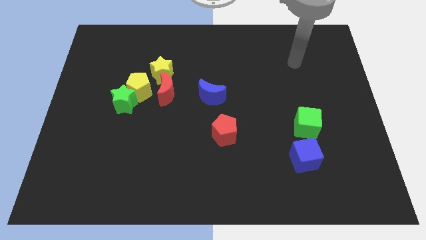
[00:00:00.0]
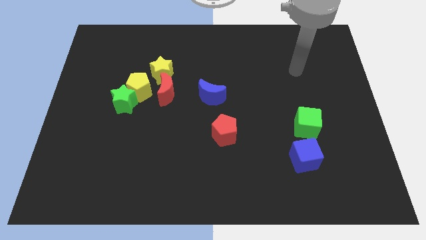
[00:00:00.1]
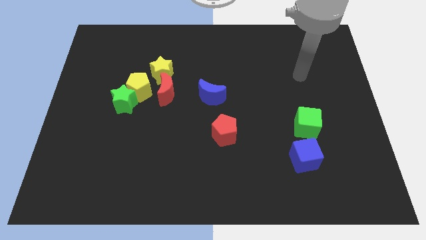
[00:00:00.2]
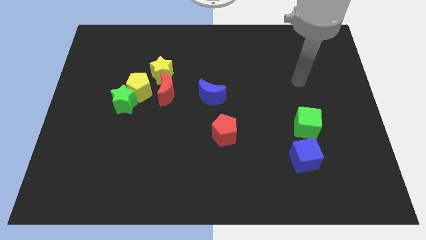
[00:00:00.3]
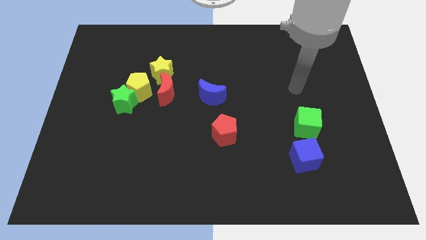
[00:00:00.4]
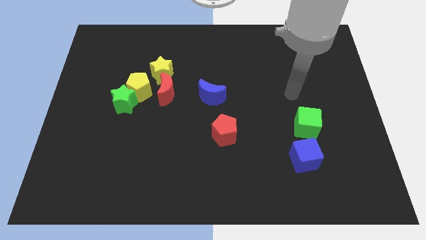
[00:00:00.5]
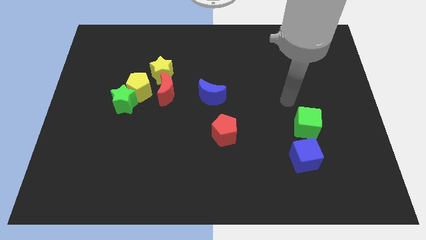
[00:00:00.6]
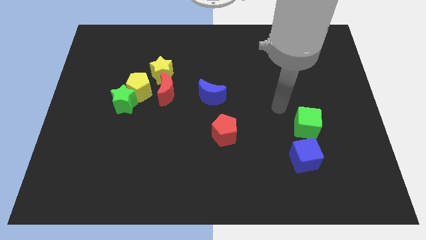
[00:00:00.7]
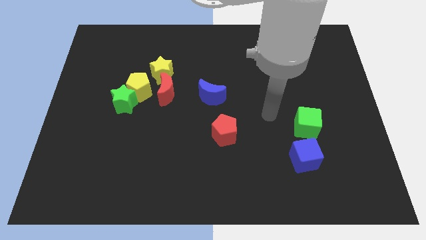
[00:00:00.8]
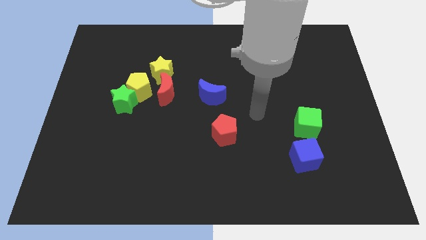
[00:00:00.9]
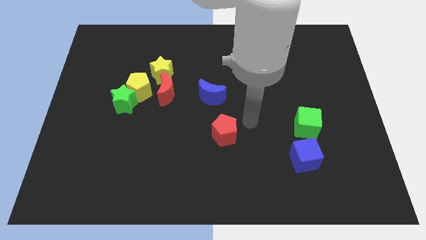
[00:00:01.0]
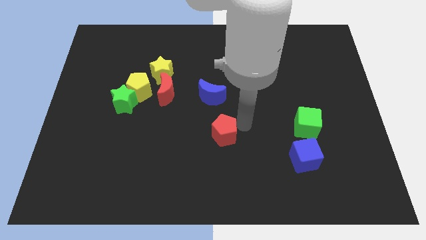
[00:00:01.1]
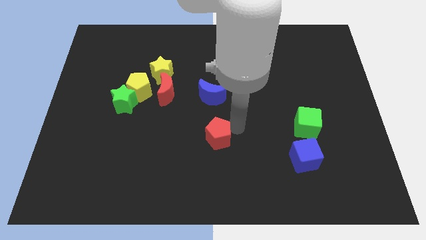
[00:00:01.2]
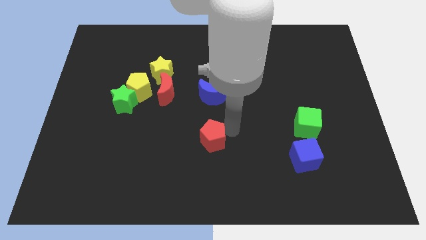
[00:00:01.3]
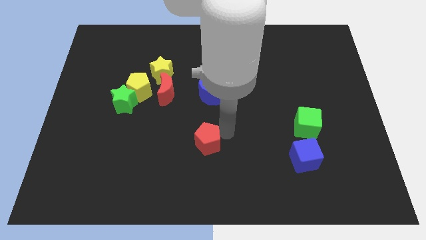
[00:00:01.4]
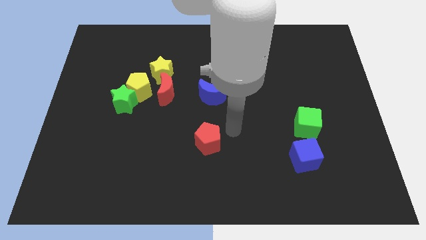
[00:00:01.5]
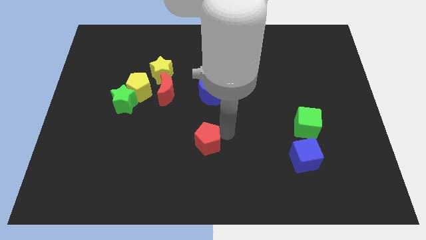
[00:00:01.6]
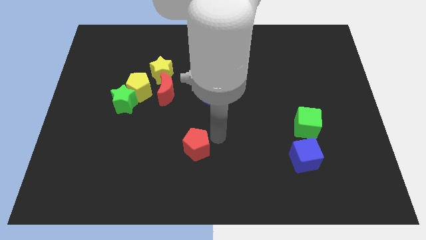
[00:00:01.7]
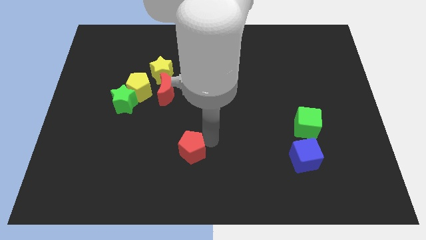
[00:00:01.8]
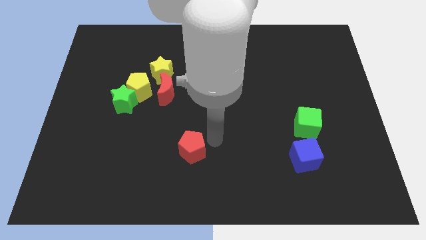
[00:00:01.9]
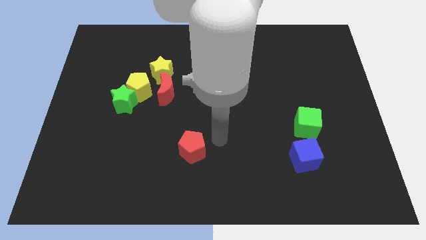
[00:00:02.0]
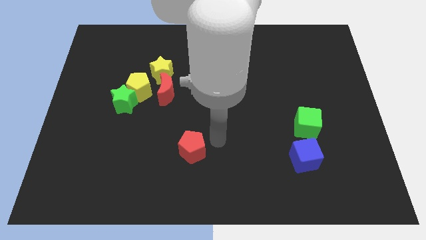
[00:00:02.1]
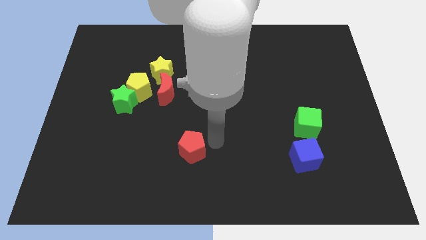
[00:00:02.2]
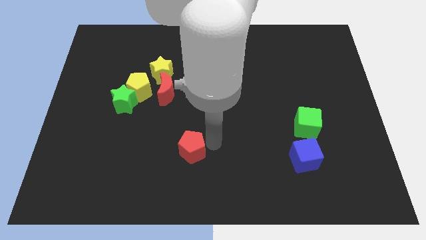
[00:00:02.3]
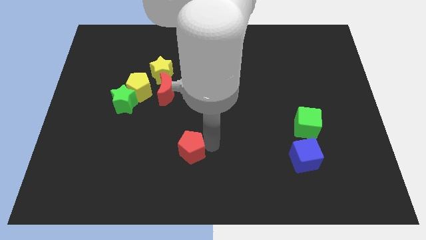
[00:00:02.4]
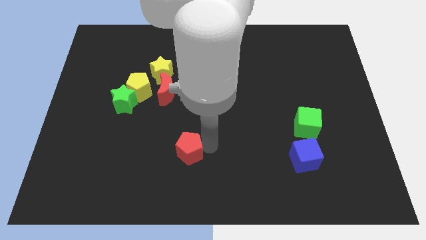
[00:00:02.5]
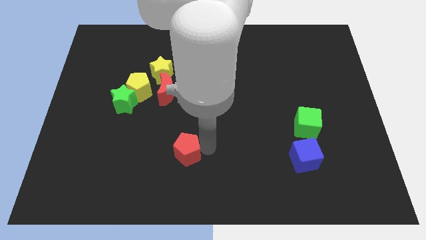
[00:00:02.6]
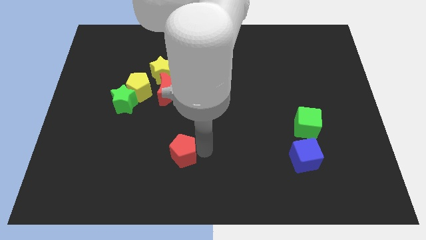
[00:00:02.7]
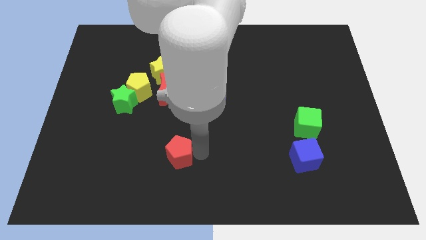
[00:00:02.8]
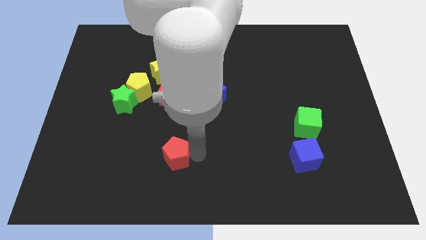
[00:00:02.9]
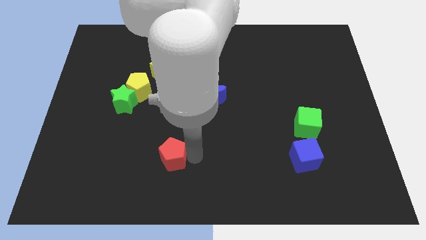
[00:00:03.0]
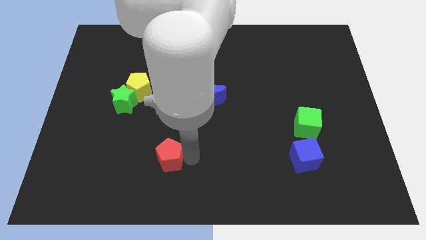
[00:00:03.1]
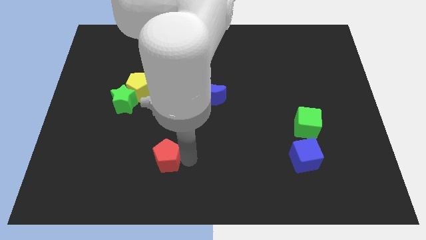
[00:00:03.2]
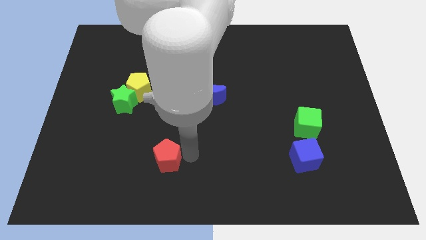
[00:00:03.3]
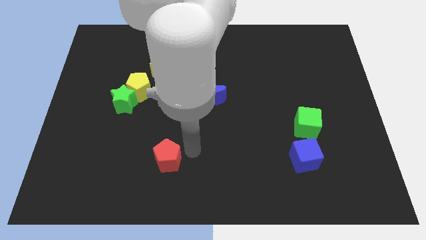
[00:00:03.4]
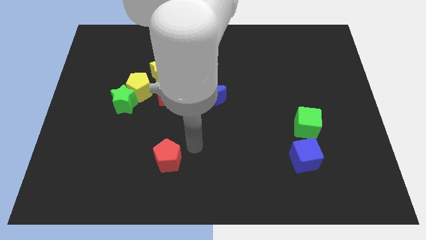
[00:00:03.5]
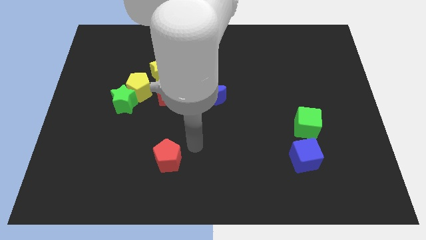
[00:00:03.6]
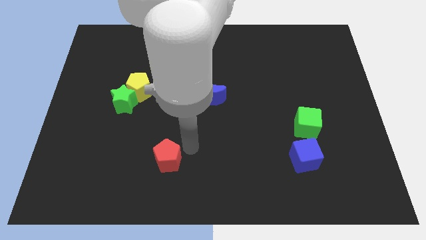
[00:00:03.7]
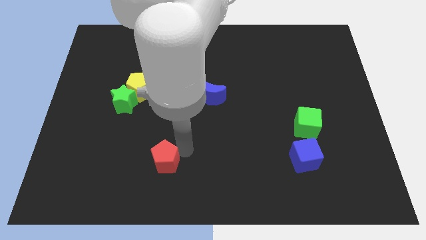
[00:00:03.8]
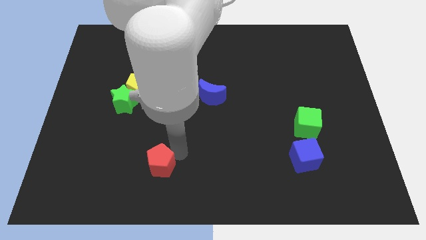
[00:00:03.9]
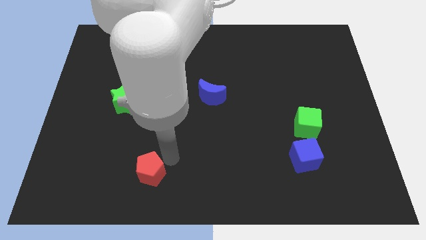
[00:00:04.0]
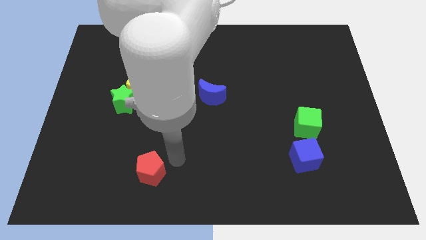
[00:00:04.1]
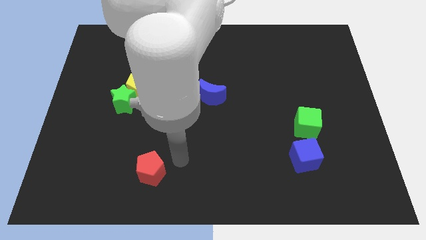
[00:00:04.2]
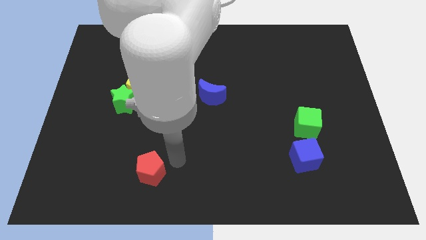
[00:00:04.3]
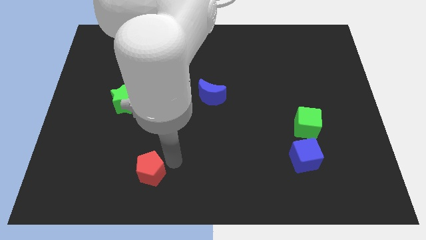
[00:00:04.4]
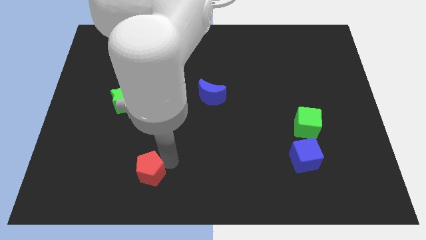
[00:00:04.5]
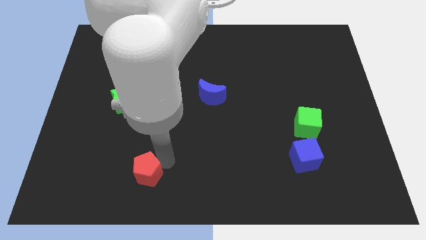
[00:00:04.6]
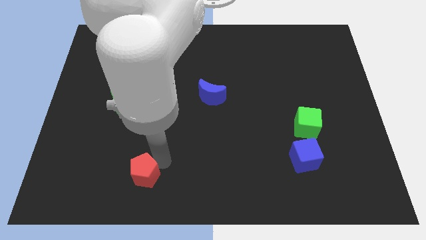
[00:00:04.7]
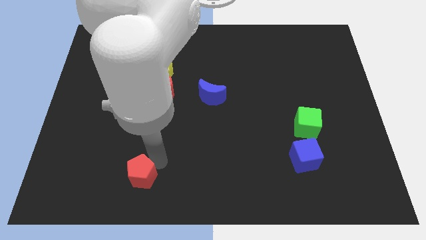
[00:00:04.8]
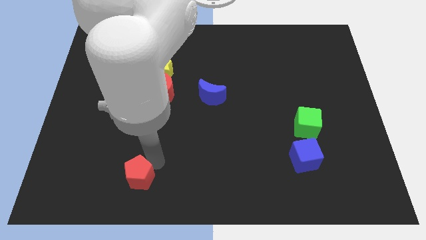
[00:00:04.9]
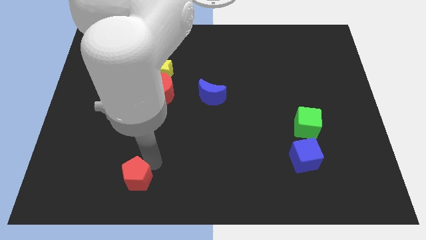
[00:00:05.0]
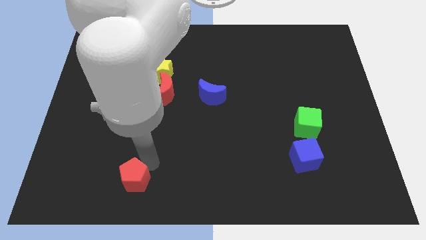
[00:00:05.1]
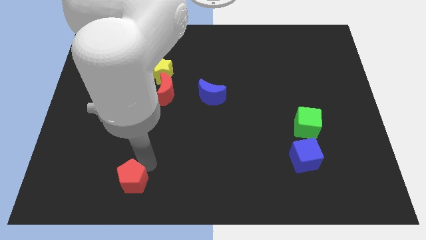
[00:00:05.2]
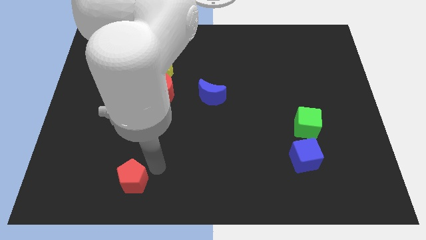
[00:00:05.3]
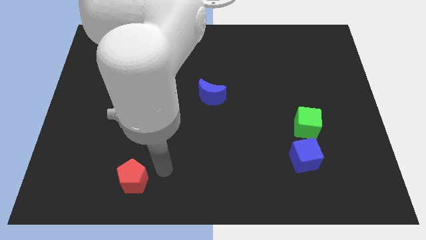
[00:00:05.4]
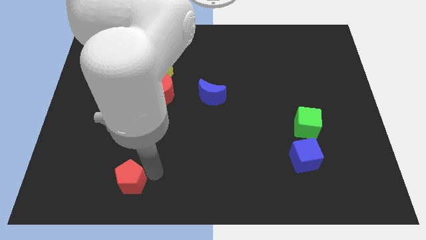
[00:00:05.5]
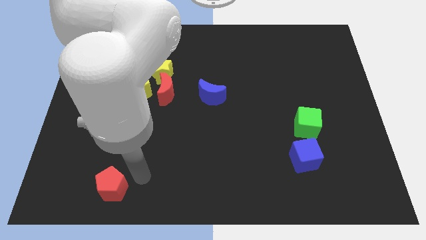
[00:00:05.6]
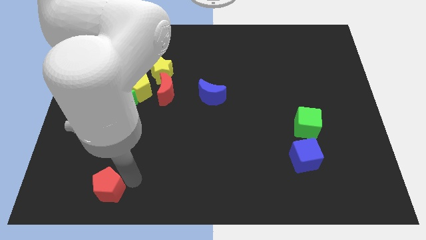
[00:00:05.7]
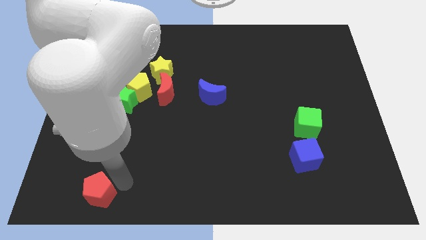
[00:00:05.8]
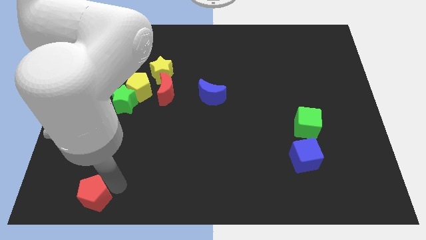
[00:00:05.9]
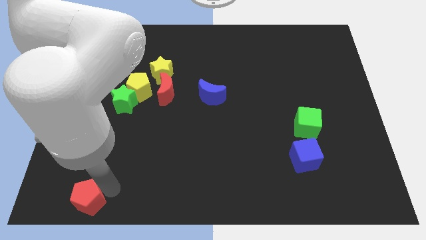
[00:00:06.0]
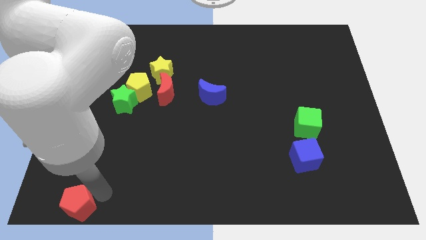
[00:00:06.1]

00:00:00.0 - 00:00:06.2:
put the red pentagon to the bottom left
